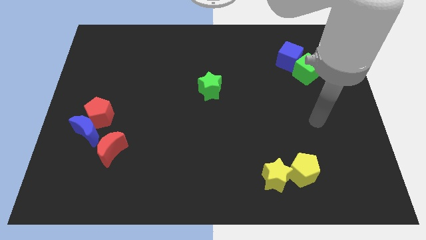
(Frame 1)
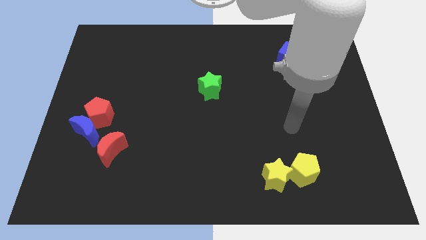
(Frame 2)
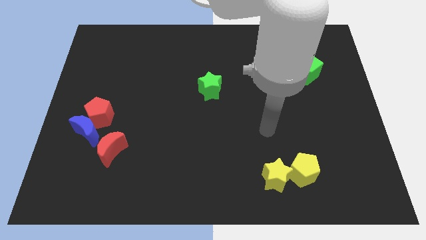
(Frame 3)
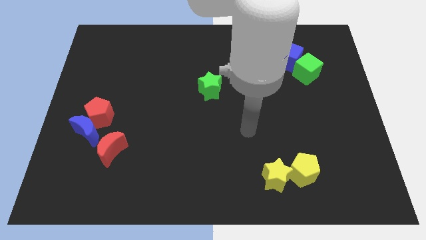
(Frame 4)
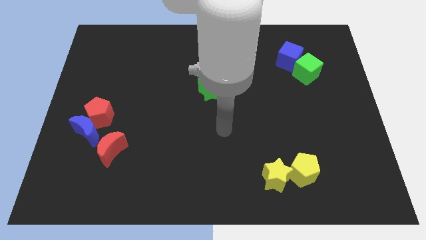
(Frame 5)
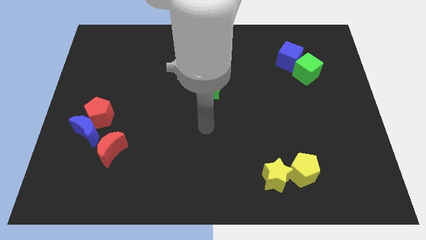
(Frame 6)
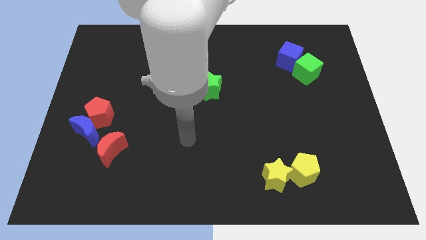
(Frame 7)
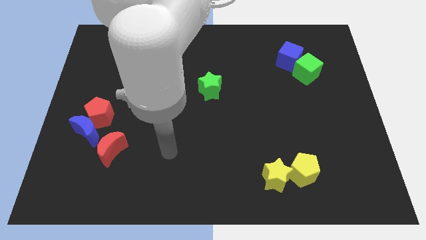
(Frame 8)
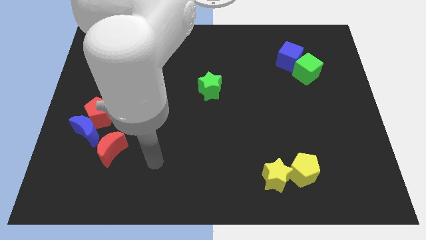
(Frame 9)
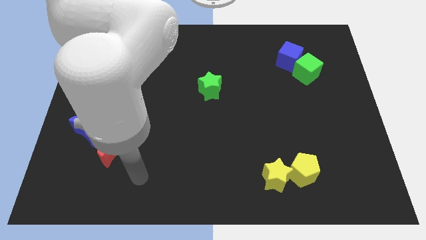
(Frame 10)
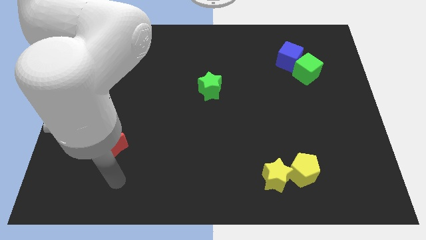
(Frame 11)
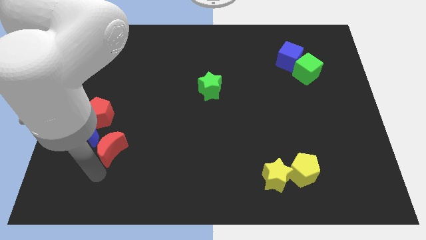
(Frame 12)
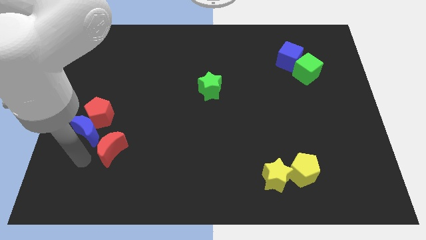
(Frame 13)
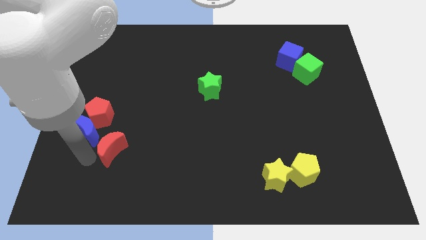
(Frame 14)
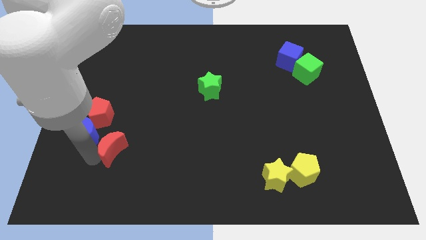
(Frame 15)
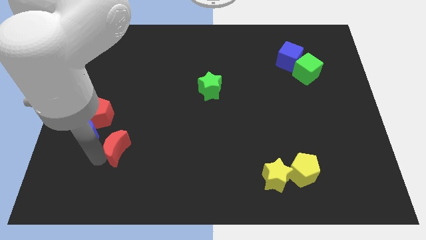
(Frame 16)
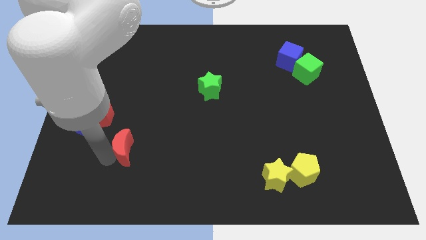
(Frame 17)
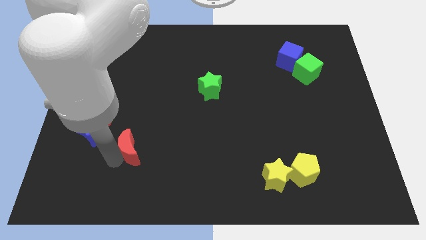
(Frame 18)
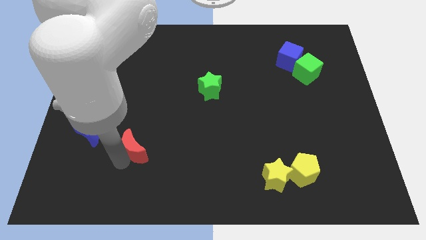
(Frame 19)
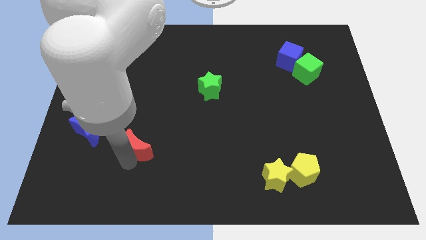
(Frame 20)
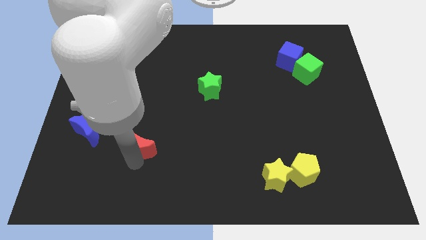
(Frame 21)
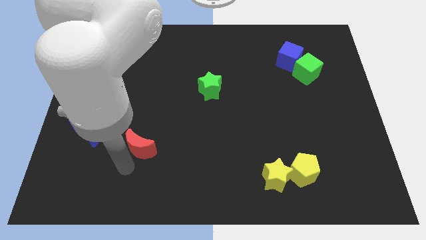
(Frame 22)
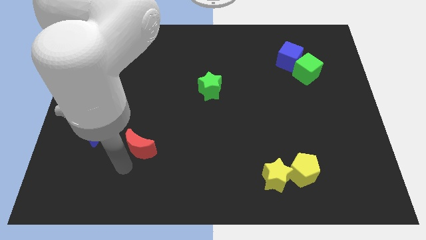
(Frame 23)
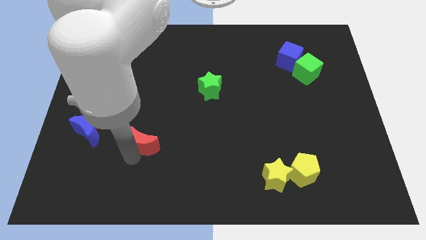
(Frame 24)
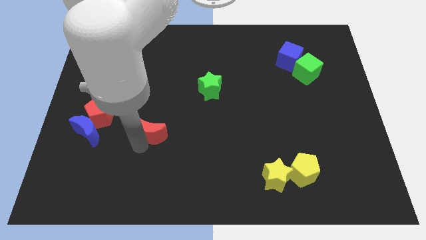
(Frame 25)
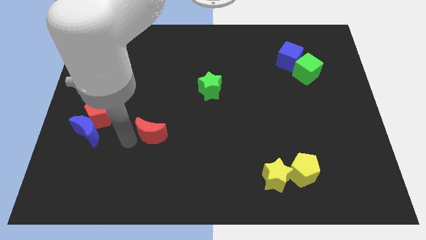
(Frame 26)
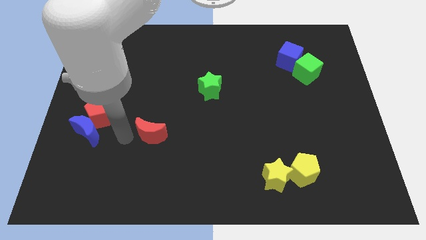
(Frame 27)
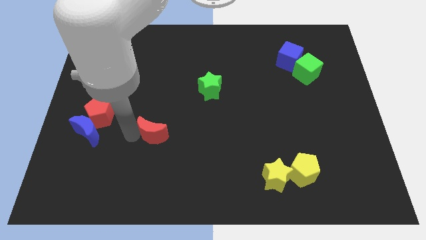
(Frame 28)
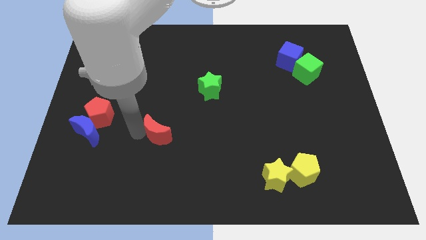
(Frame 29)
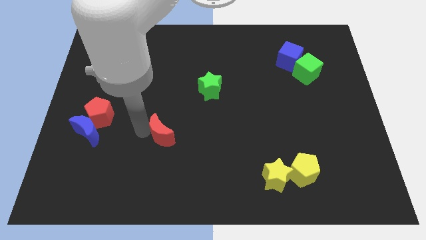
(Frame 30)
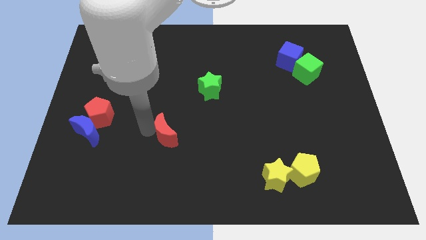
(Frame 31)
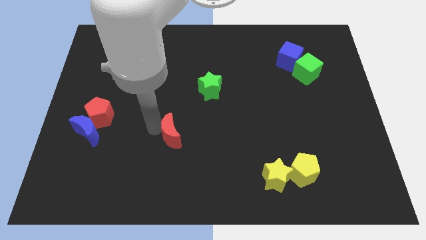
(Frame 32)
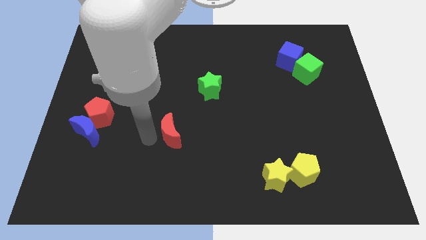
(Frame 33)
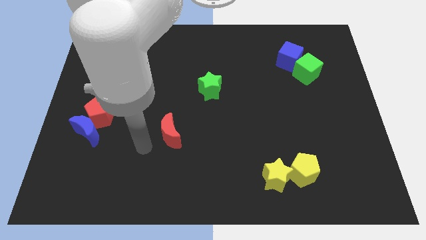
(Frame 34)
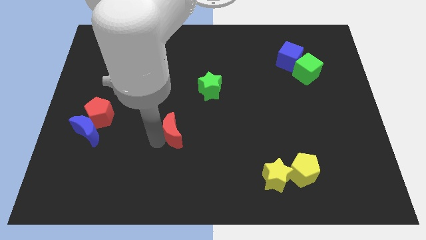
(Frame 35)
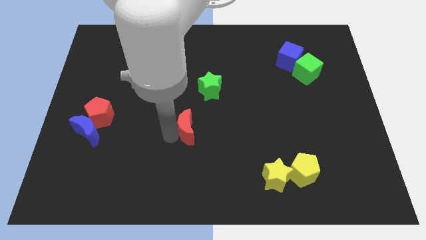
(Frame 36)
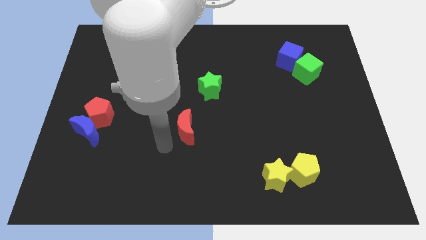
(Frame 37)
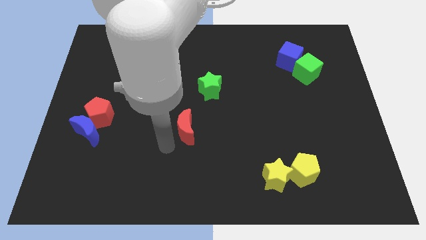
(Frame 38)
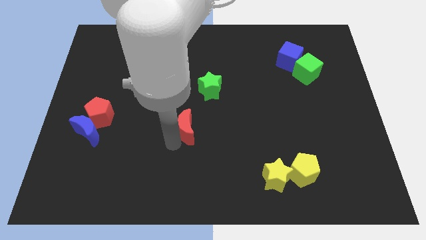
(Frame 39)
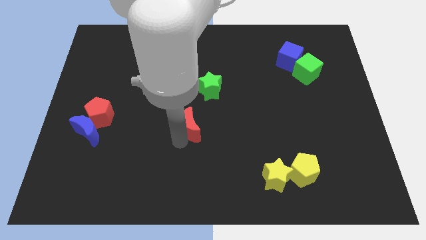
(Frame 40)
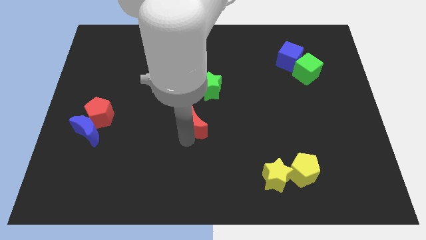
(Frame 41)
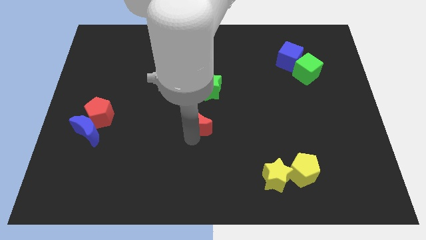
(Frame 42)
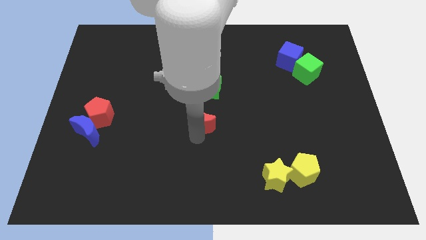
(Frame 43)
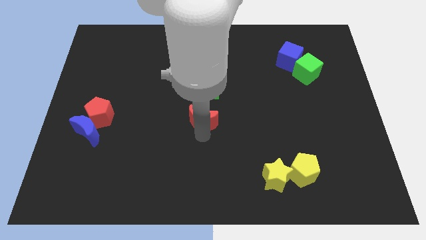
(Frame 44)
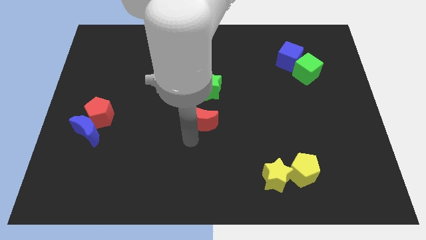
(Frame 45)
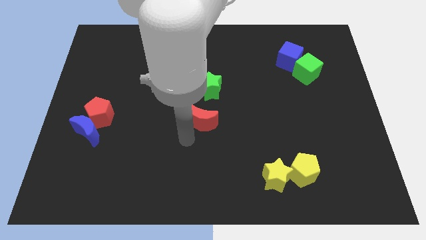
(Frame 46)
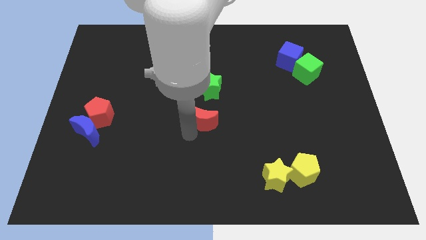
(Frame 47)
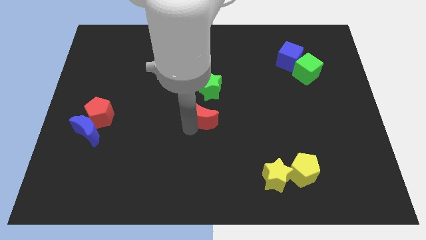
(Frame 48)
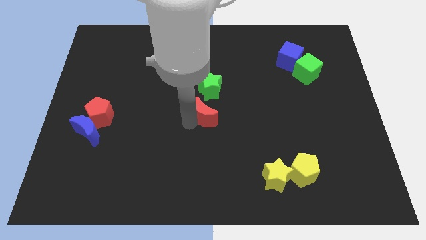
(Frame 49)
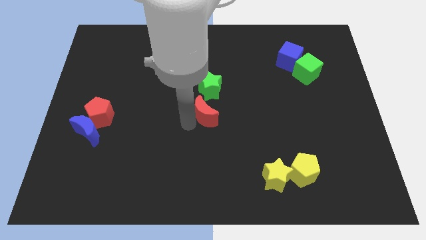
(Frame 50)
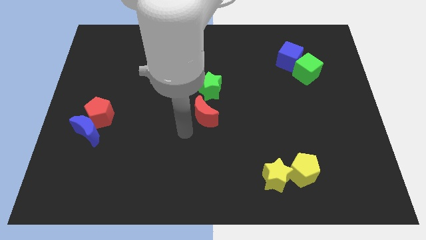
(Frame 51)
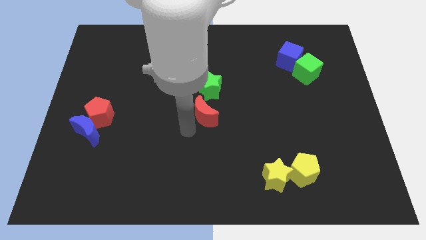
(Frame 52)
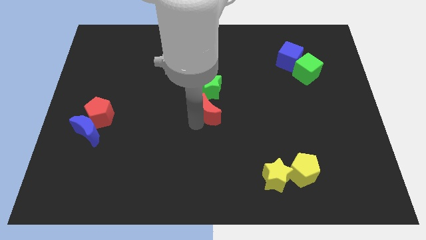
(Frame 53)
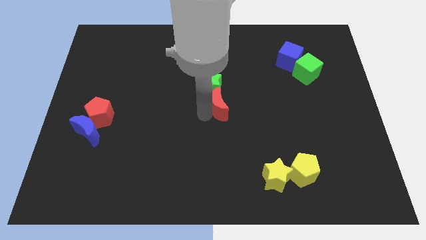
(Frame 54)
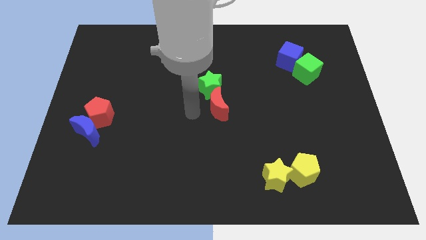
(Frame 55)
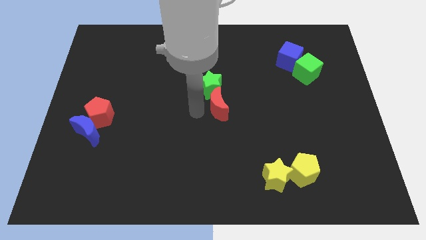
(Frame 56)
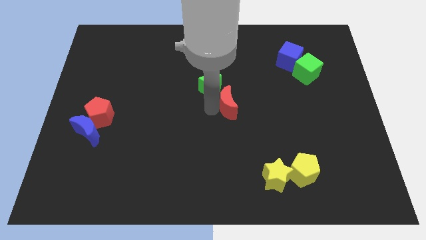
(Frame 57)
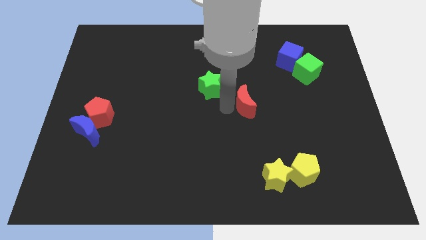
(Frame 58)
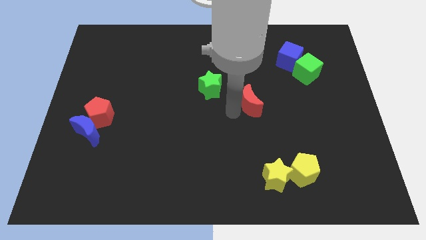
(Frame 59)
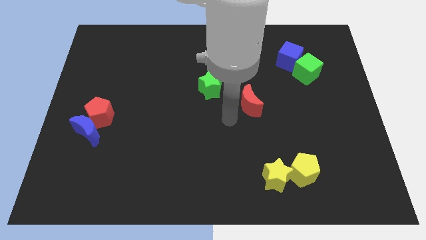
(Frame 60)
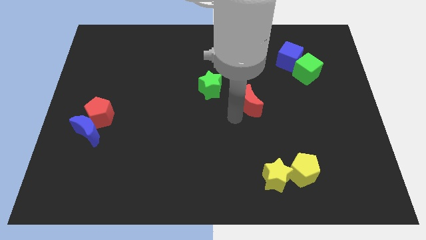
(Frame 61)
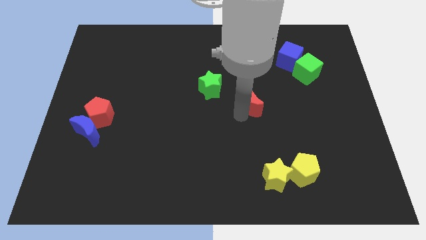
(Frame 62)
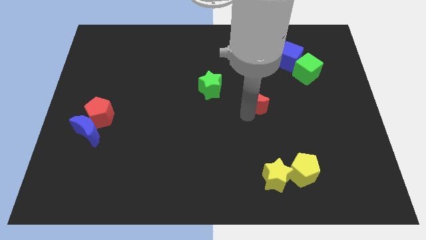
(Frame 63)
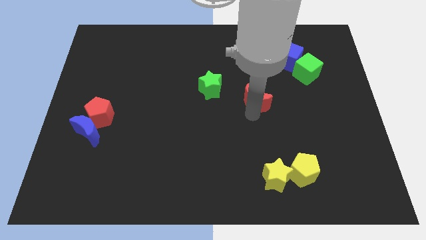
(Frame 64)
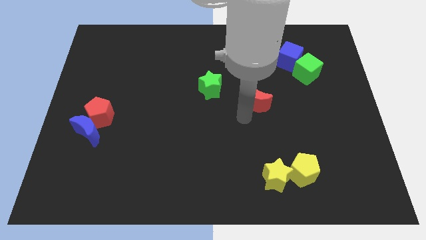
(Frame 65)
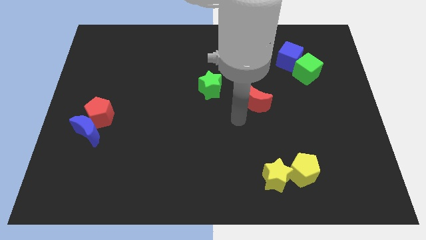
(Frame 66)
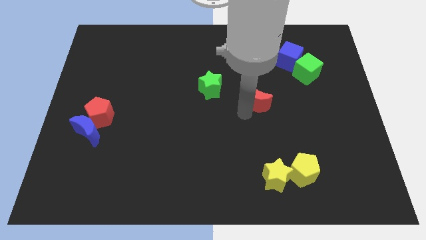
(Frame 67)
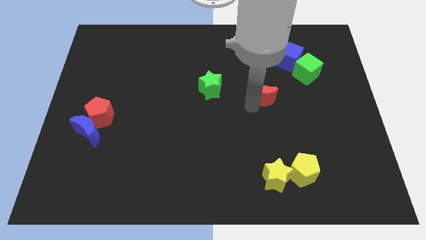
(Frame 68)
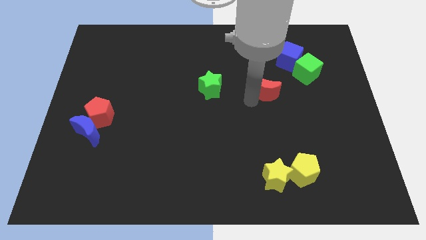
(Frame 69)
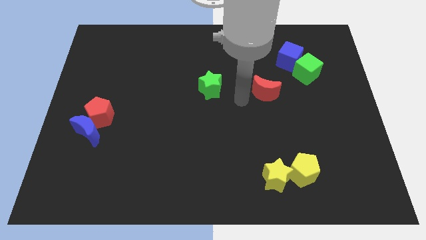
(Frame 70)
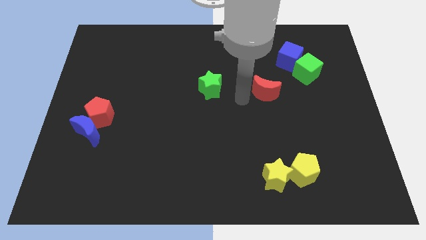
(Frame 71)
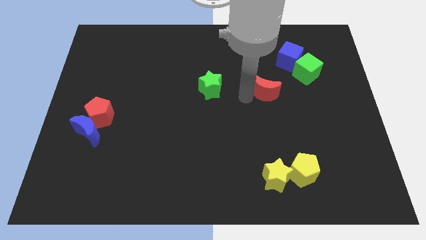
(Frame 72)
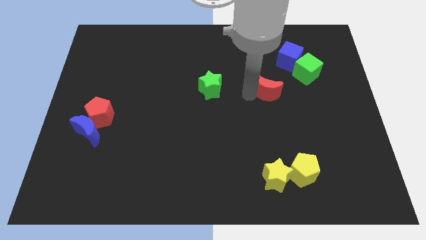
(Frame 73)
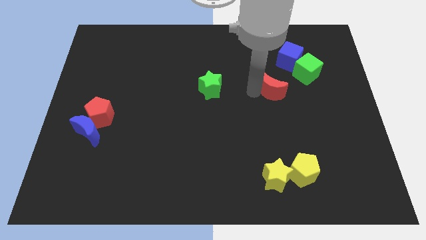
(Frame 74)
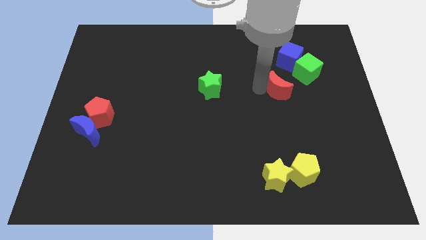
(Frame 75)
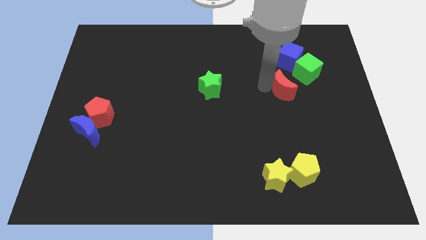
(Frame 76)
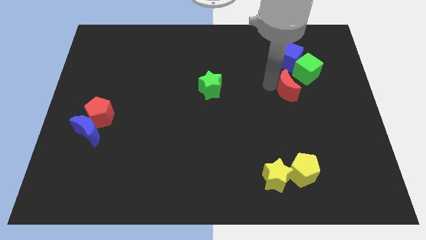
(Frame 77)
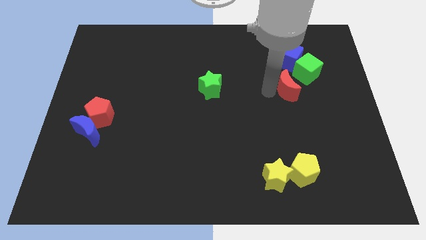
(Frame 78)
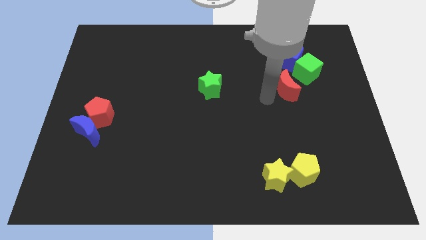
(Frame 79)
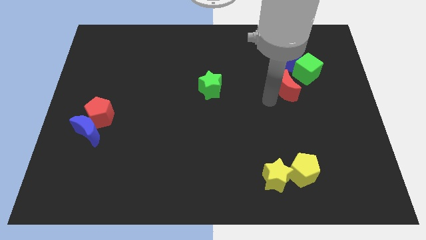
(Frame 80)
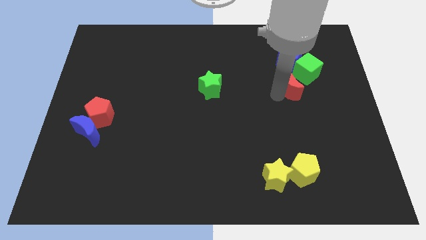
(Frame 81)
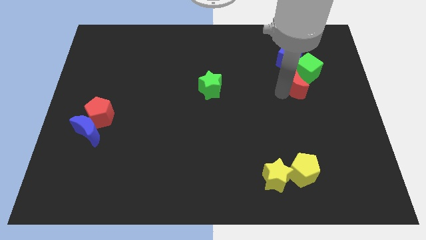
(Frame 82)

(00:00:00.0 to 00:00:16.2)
move the red moon towards the green cube

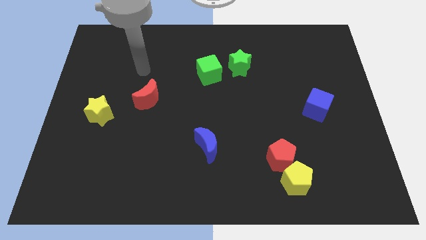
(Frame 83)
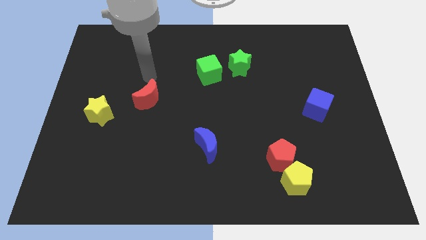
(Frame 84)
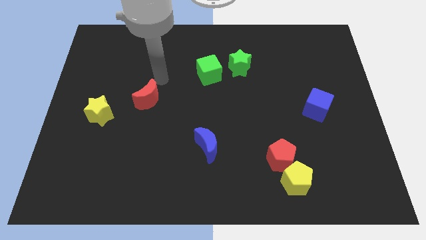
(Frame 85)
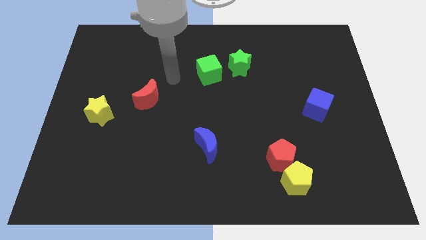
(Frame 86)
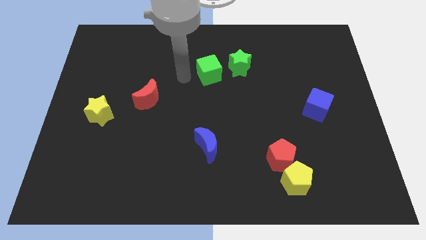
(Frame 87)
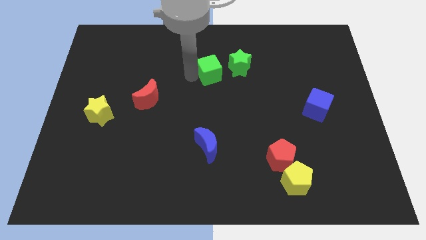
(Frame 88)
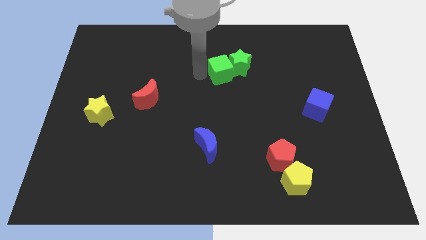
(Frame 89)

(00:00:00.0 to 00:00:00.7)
slide the green cube close to the green star
